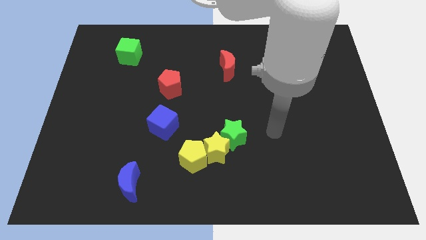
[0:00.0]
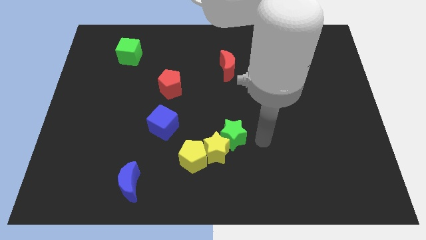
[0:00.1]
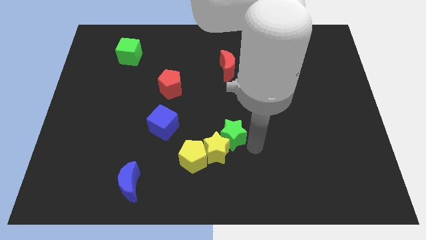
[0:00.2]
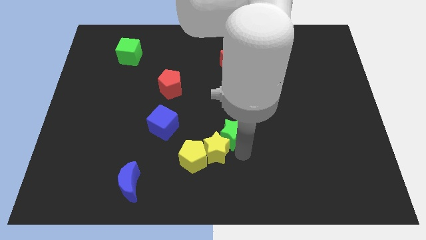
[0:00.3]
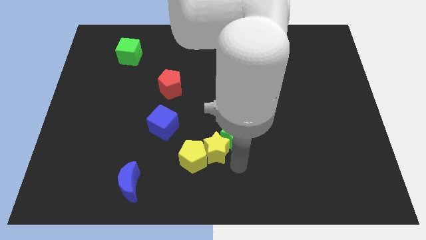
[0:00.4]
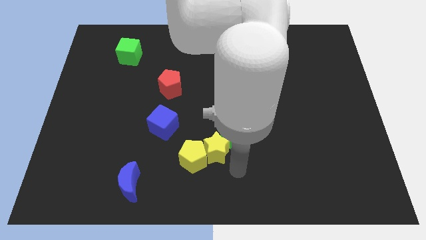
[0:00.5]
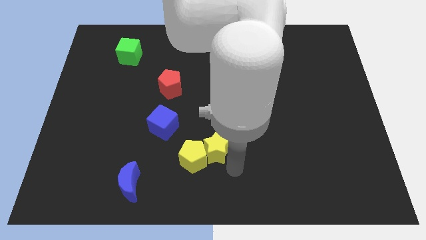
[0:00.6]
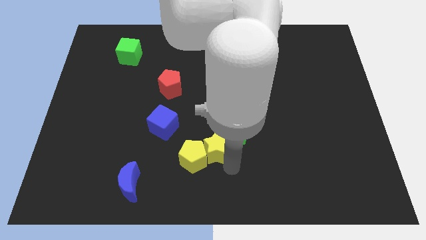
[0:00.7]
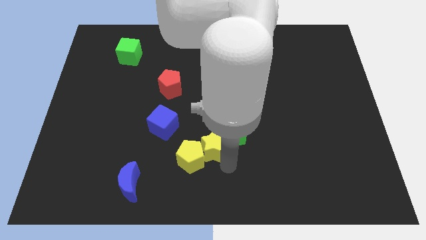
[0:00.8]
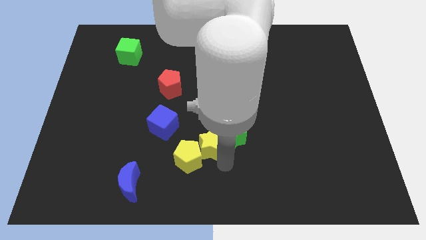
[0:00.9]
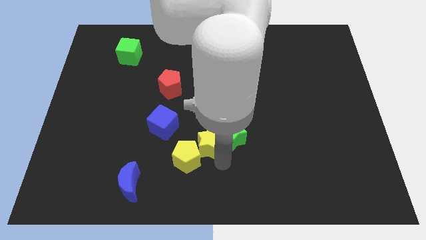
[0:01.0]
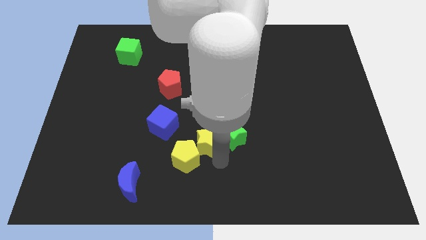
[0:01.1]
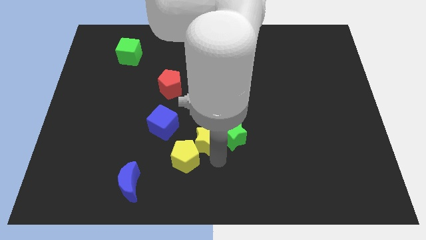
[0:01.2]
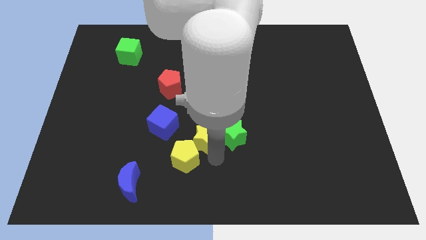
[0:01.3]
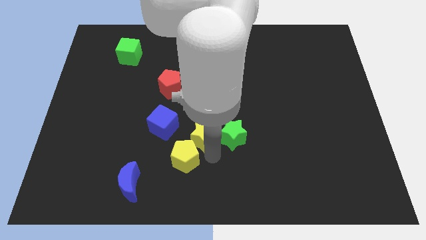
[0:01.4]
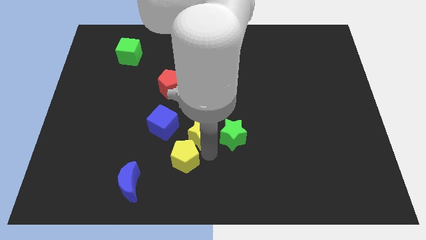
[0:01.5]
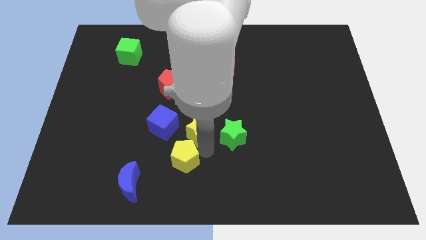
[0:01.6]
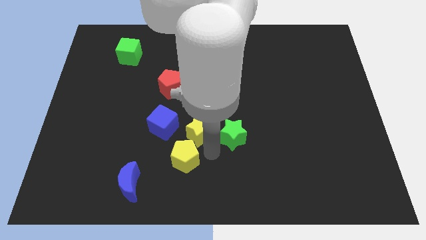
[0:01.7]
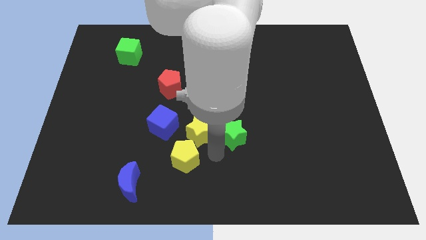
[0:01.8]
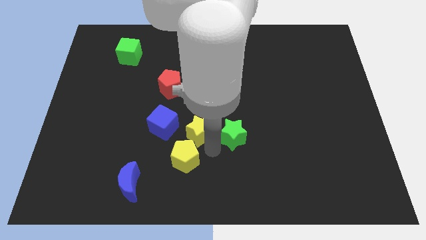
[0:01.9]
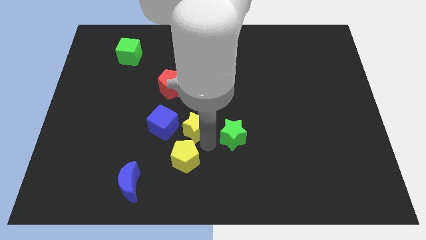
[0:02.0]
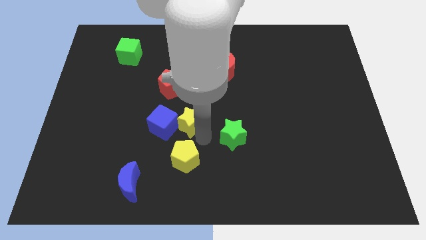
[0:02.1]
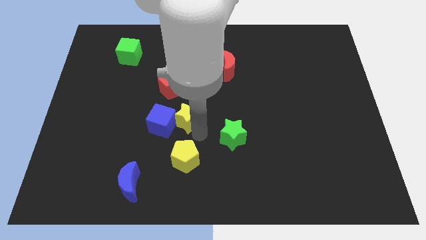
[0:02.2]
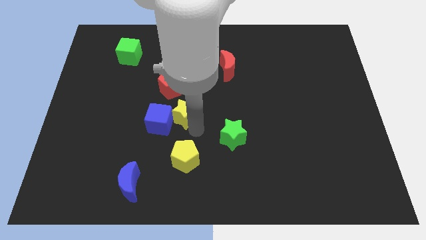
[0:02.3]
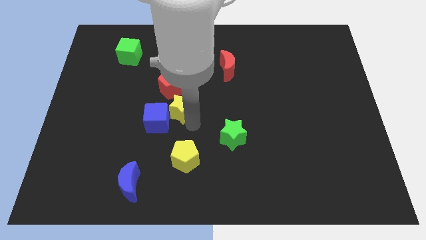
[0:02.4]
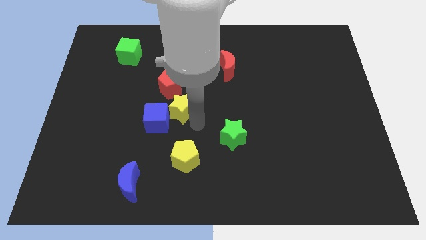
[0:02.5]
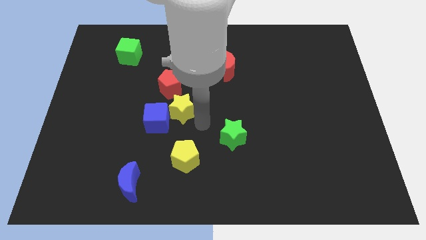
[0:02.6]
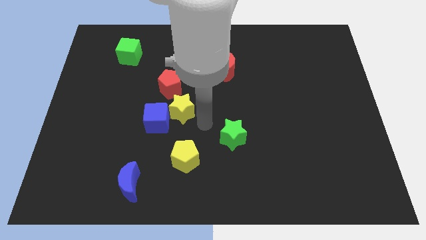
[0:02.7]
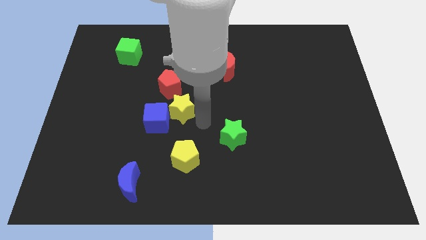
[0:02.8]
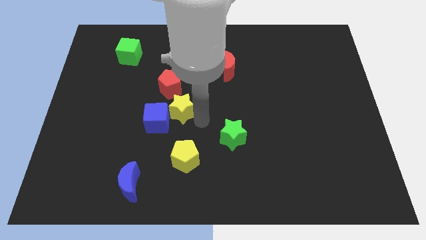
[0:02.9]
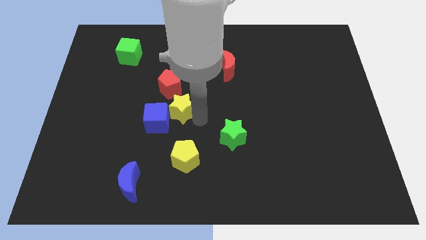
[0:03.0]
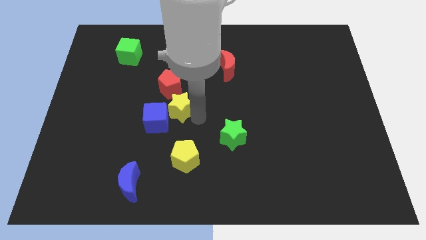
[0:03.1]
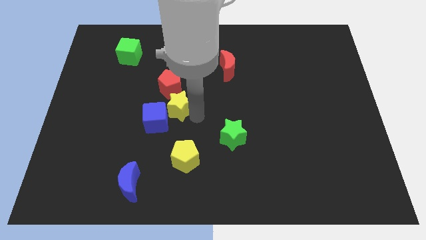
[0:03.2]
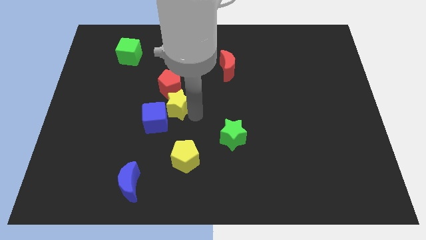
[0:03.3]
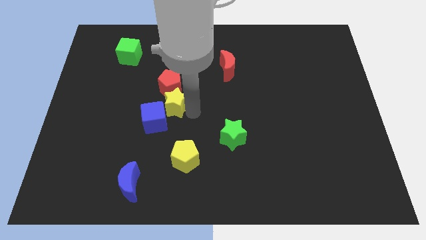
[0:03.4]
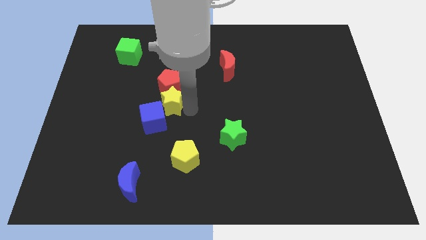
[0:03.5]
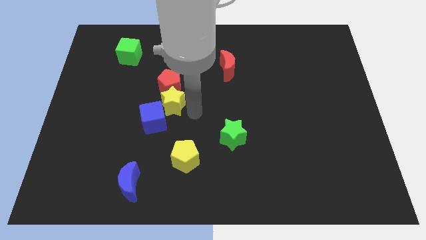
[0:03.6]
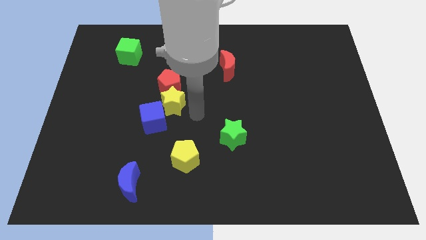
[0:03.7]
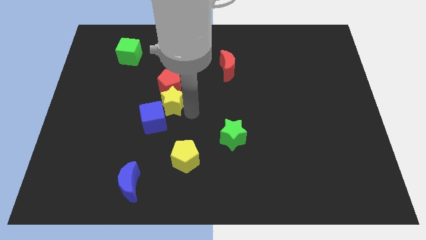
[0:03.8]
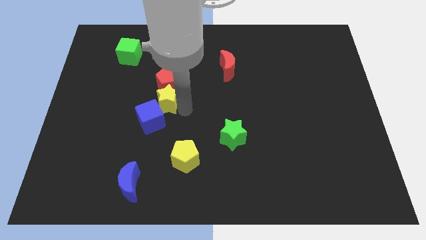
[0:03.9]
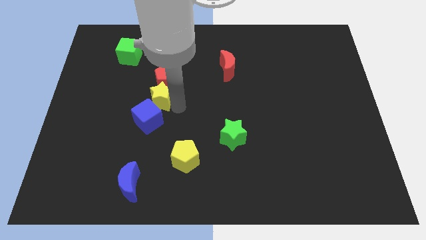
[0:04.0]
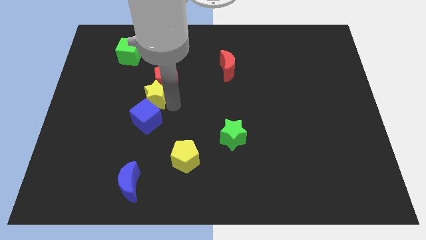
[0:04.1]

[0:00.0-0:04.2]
slide the yellow star diagonally upwards and left

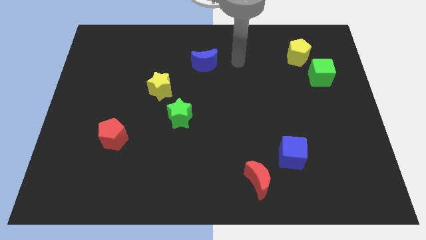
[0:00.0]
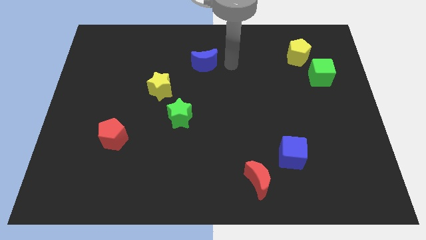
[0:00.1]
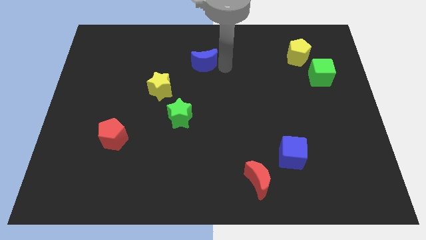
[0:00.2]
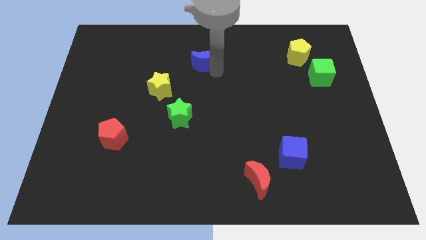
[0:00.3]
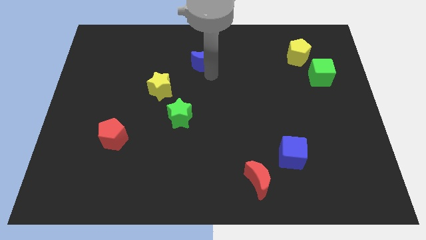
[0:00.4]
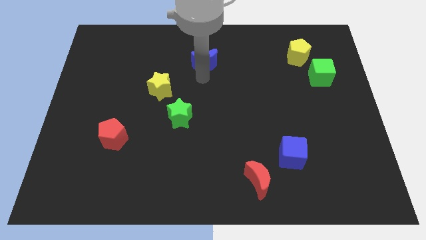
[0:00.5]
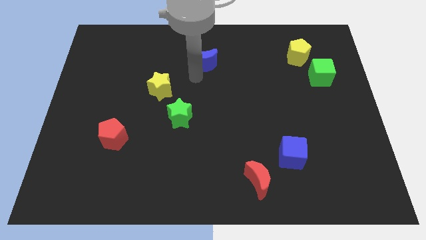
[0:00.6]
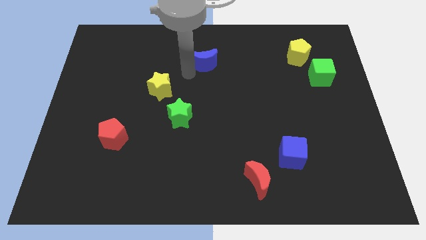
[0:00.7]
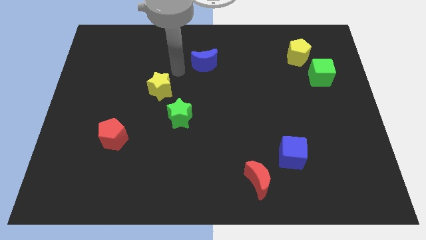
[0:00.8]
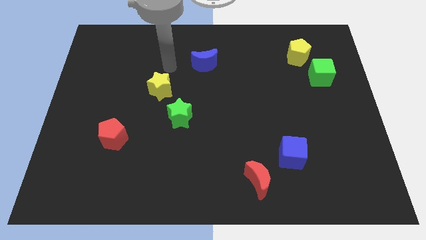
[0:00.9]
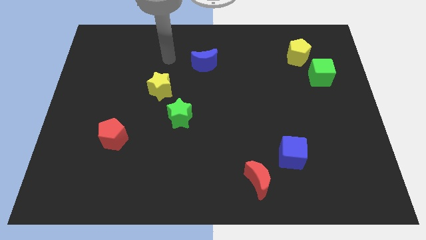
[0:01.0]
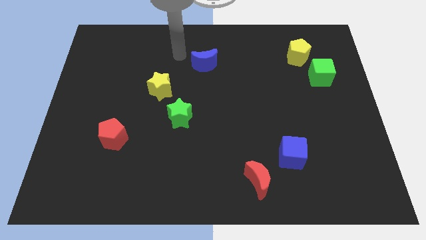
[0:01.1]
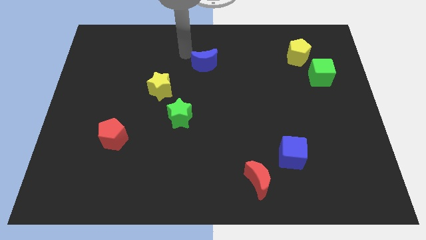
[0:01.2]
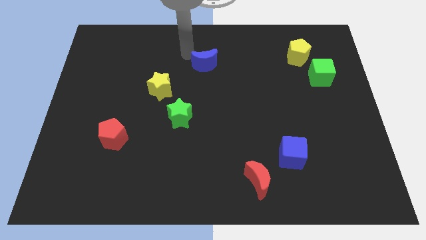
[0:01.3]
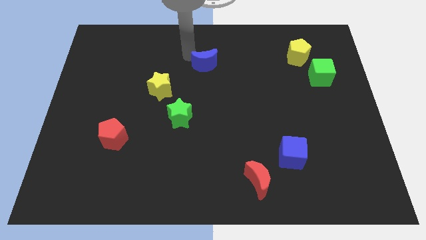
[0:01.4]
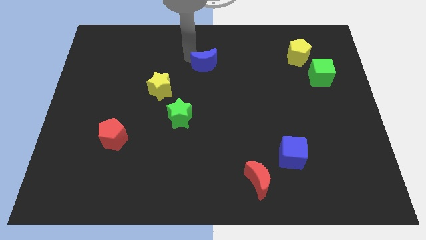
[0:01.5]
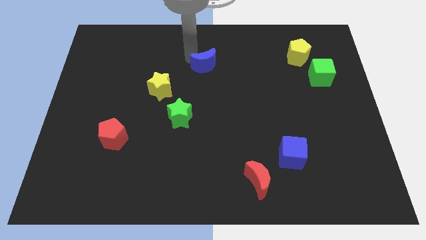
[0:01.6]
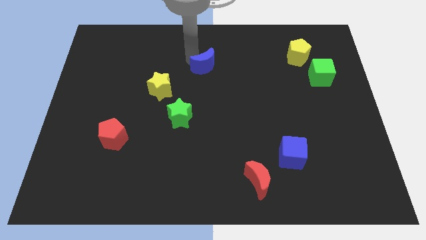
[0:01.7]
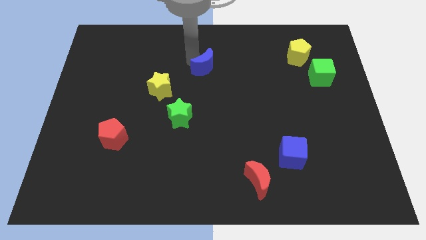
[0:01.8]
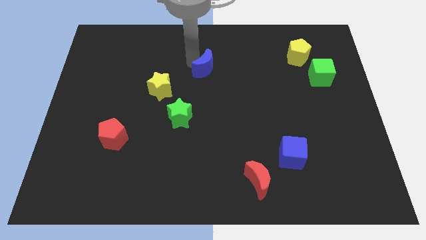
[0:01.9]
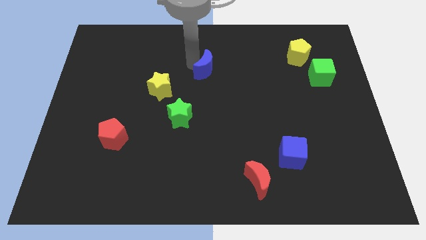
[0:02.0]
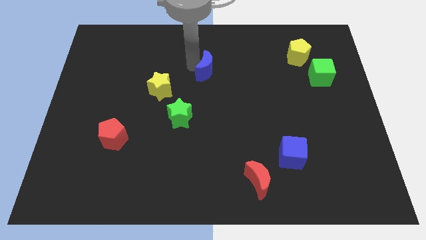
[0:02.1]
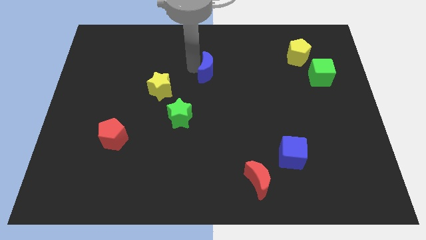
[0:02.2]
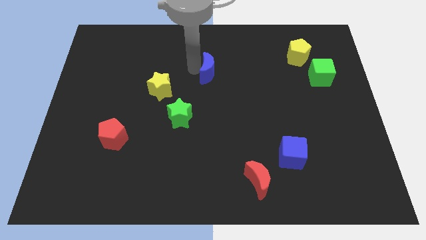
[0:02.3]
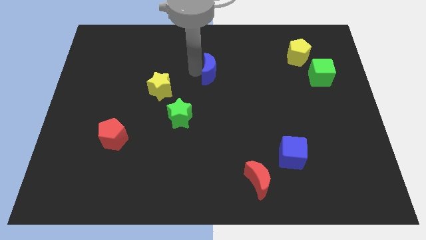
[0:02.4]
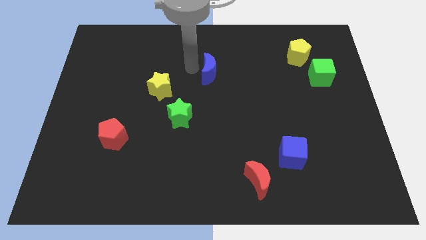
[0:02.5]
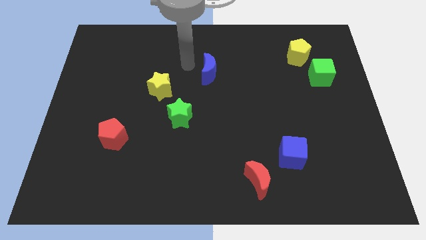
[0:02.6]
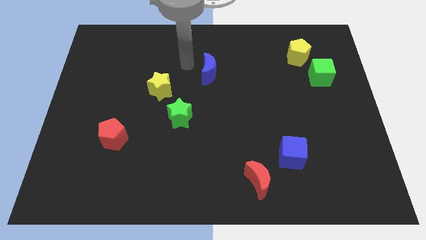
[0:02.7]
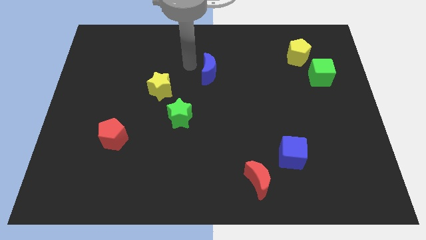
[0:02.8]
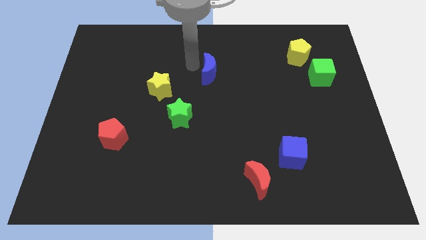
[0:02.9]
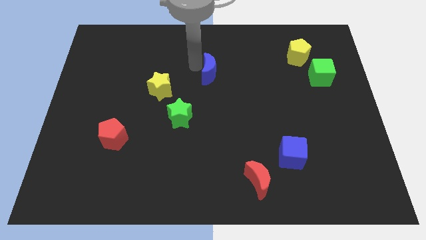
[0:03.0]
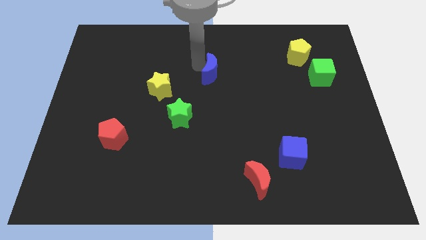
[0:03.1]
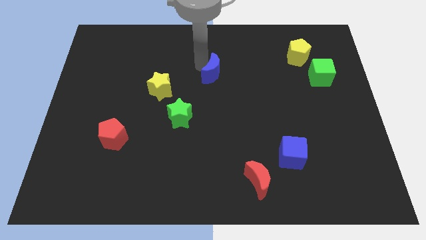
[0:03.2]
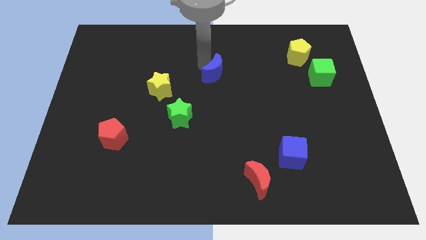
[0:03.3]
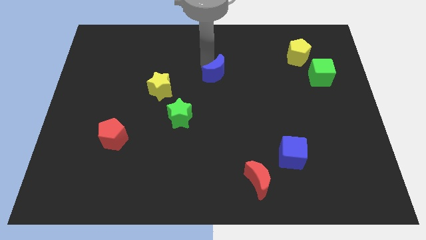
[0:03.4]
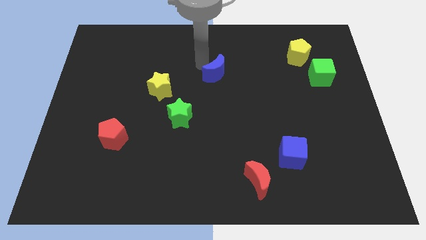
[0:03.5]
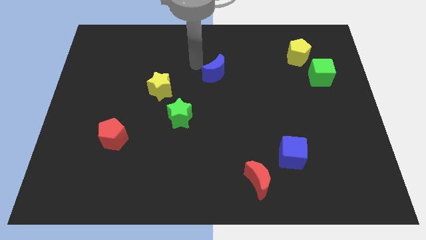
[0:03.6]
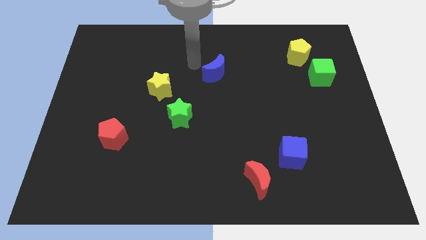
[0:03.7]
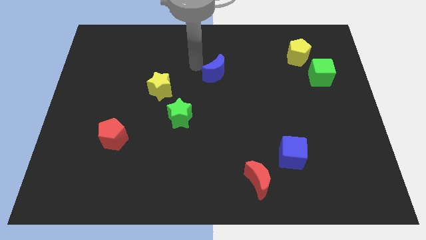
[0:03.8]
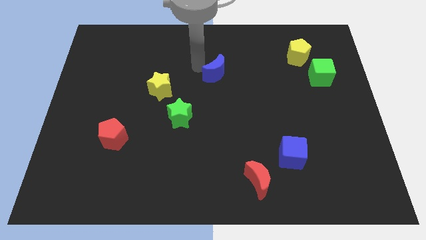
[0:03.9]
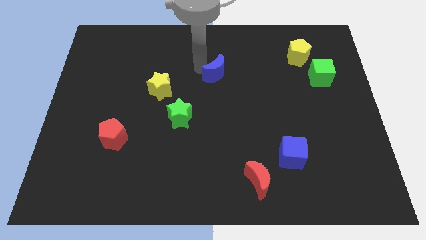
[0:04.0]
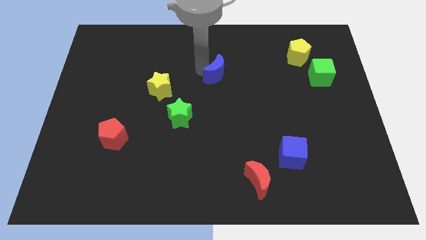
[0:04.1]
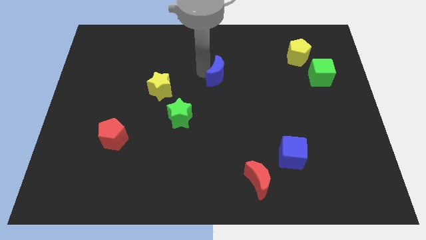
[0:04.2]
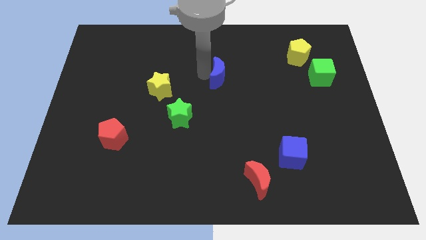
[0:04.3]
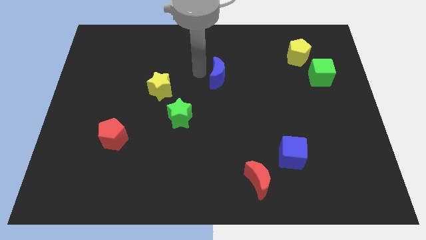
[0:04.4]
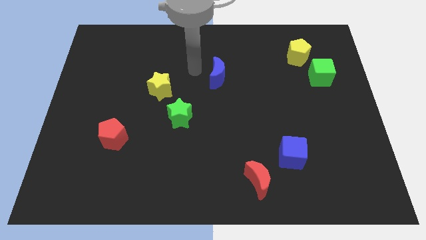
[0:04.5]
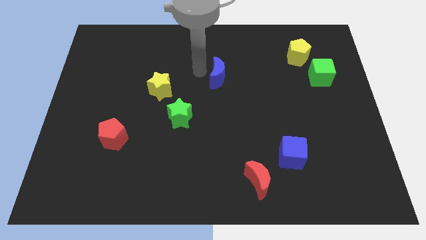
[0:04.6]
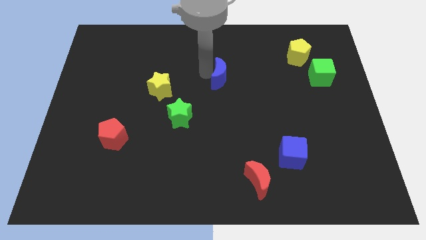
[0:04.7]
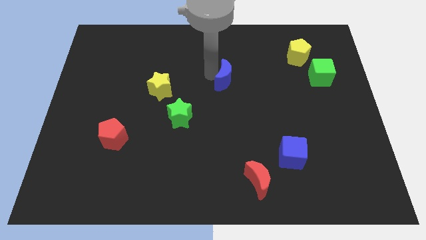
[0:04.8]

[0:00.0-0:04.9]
slightly push the blue moon down and right diagonally
